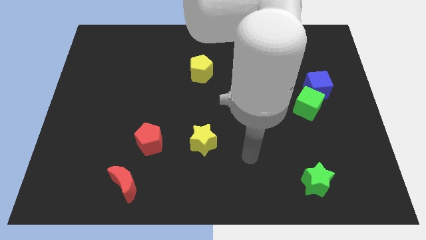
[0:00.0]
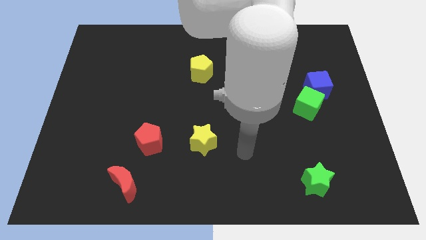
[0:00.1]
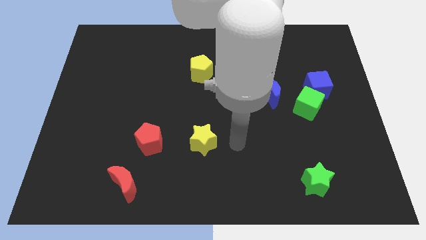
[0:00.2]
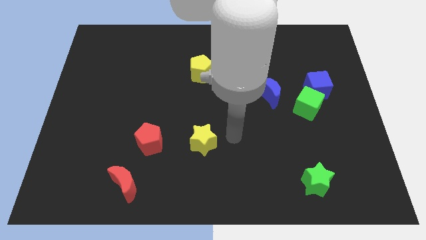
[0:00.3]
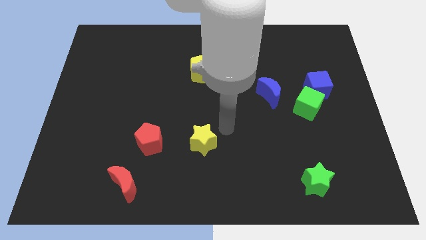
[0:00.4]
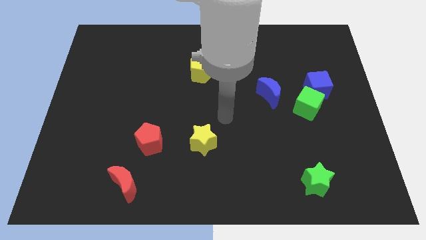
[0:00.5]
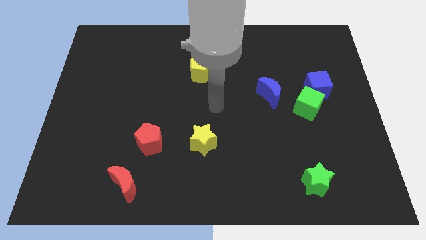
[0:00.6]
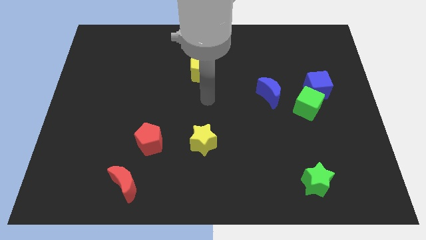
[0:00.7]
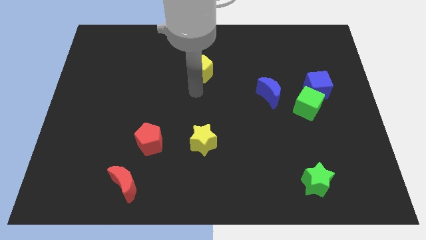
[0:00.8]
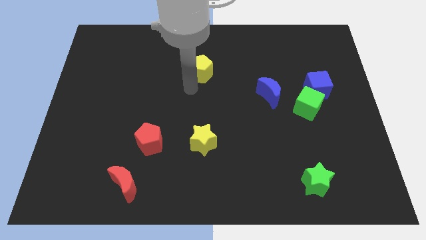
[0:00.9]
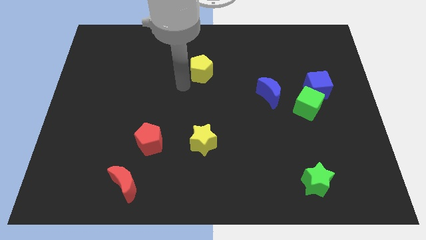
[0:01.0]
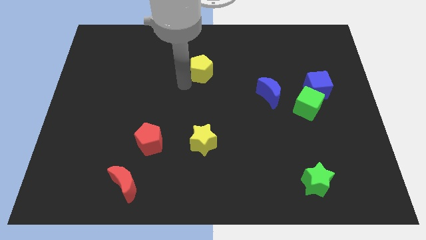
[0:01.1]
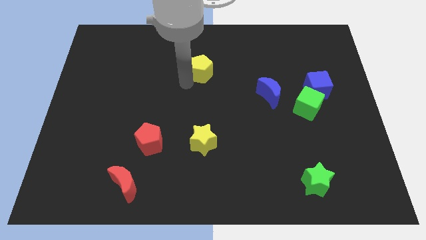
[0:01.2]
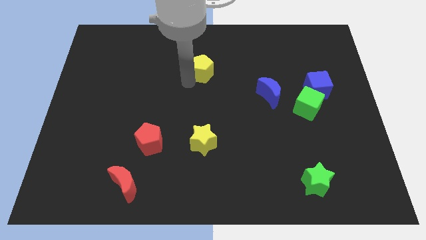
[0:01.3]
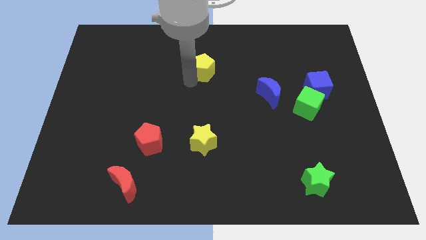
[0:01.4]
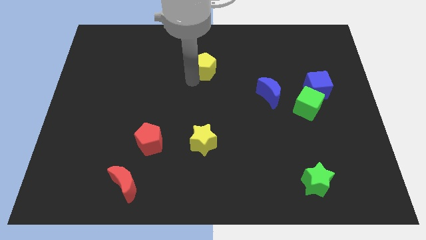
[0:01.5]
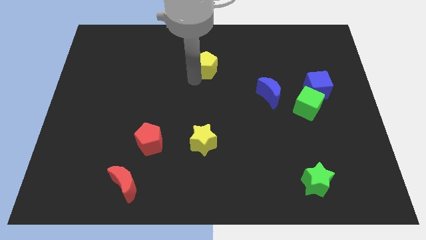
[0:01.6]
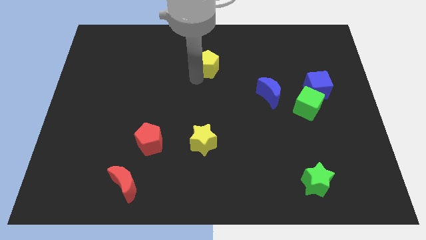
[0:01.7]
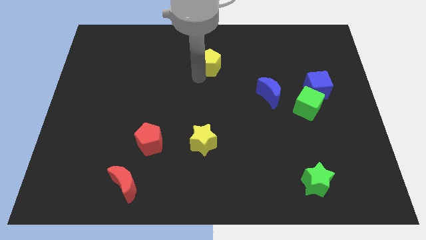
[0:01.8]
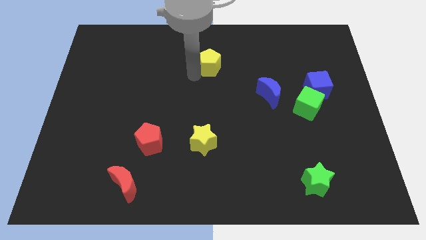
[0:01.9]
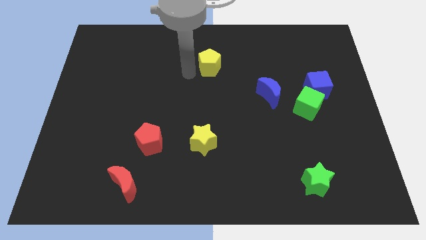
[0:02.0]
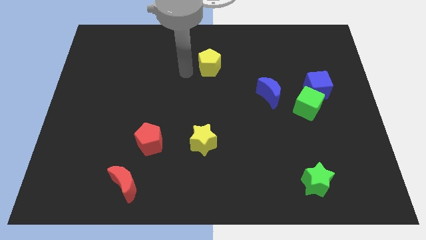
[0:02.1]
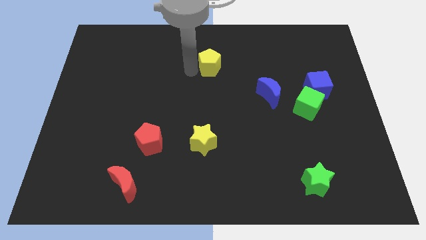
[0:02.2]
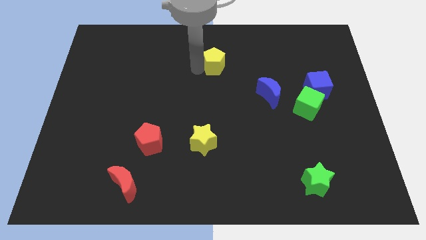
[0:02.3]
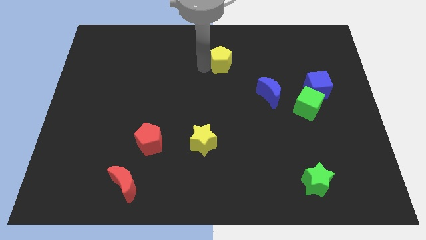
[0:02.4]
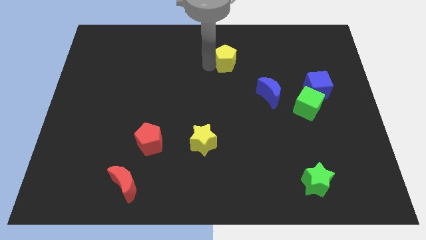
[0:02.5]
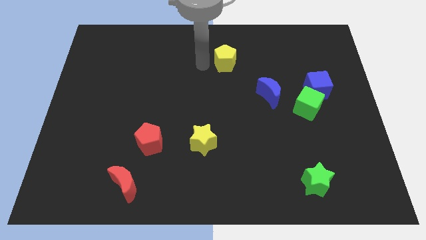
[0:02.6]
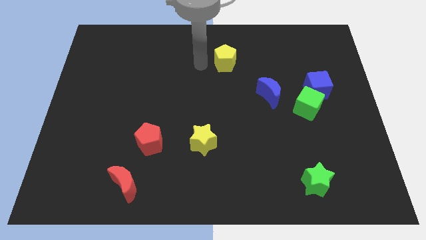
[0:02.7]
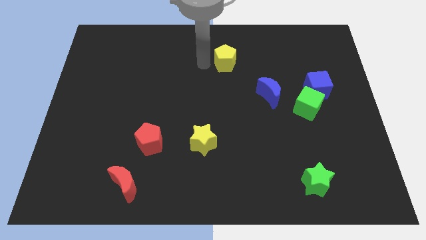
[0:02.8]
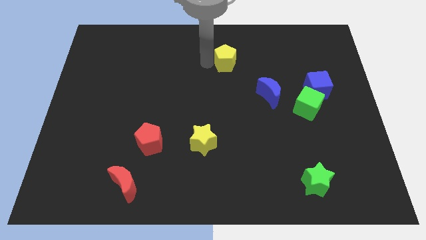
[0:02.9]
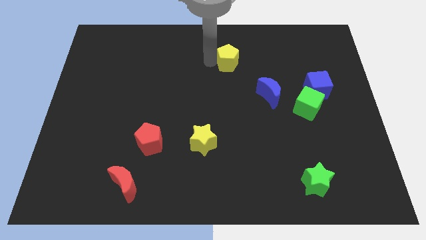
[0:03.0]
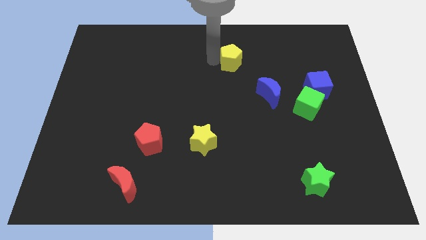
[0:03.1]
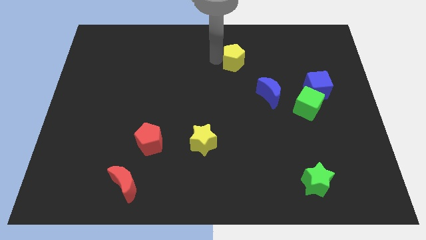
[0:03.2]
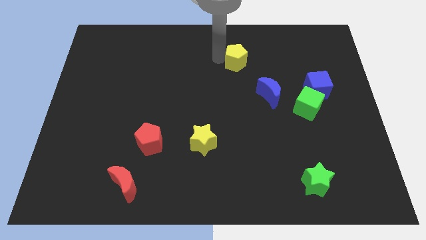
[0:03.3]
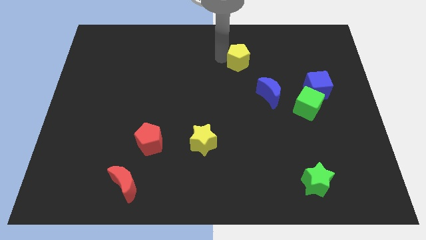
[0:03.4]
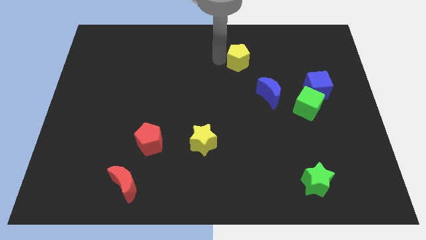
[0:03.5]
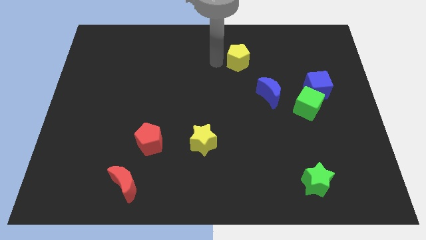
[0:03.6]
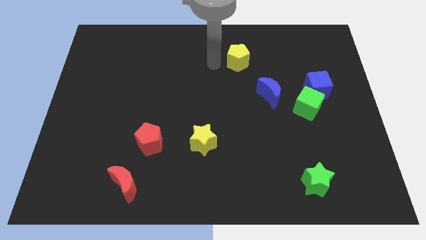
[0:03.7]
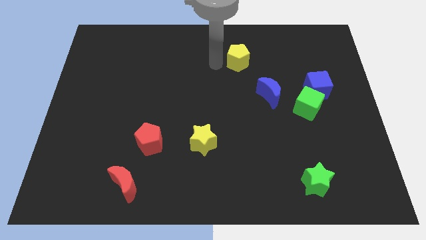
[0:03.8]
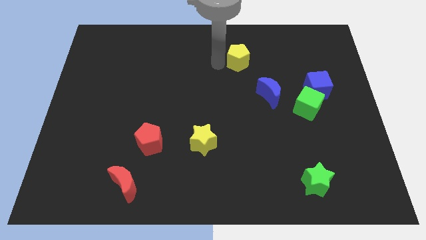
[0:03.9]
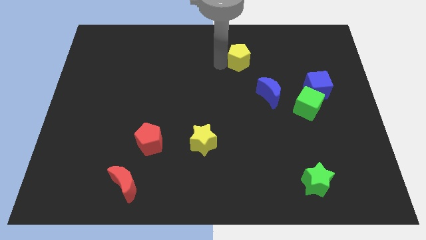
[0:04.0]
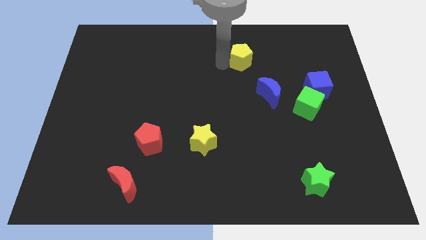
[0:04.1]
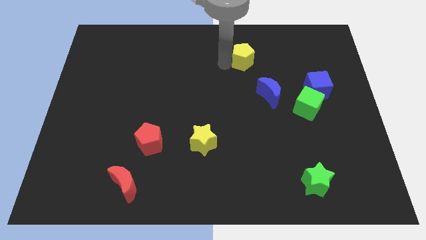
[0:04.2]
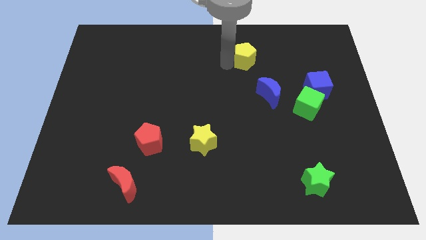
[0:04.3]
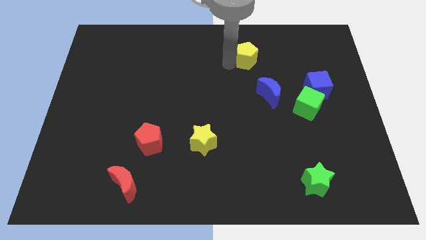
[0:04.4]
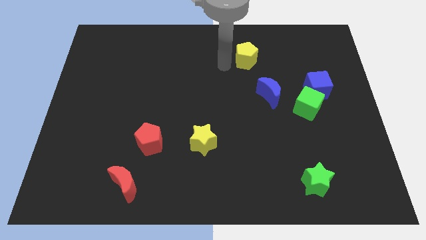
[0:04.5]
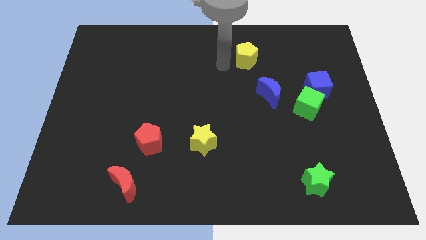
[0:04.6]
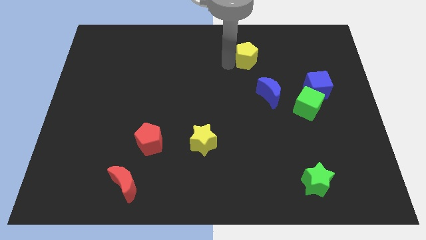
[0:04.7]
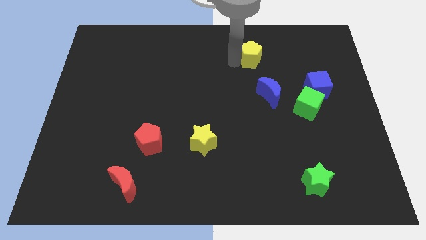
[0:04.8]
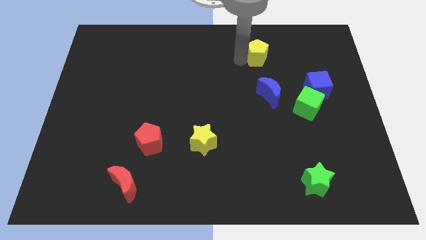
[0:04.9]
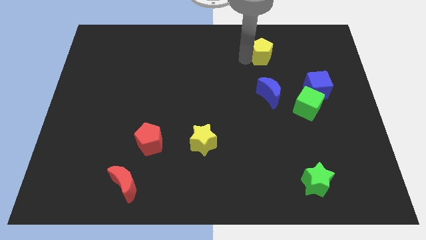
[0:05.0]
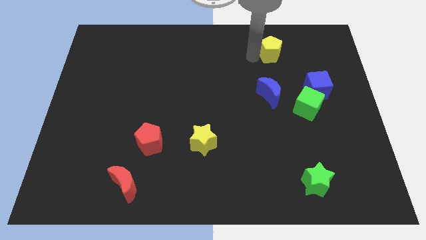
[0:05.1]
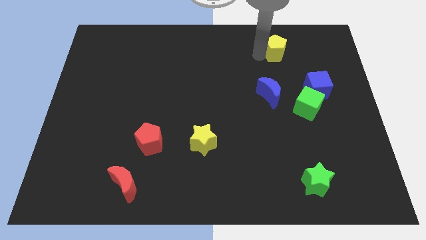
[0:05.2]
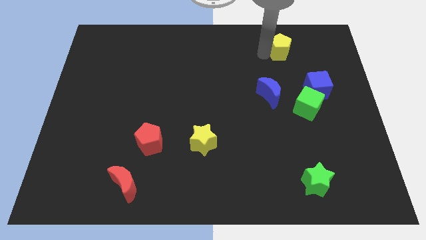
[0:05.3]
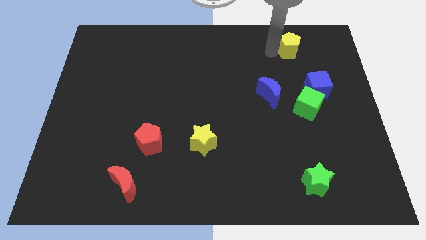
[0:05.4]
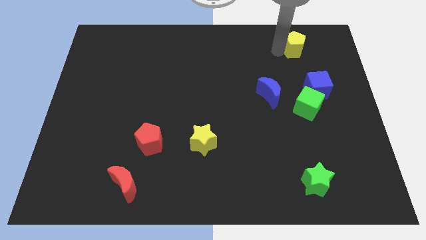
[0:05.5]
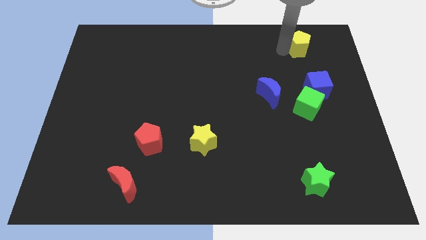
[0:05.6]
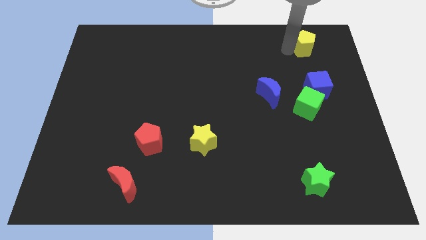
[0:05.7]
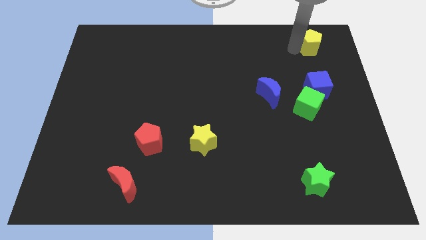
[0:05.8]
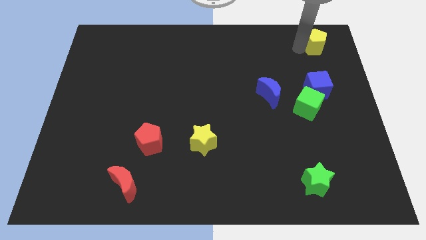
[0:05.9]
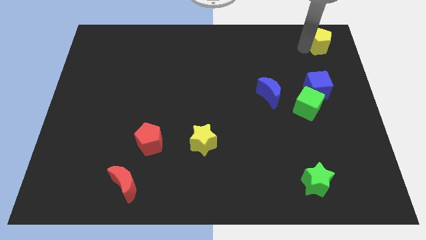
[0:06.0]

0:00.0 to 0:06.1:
push the yellow pentagon to the top right of the board
